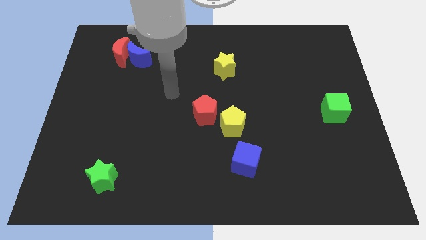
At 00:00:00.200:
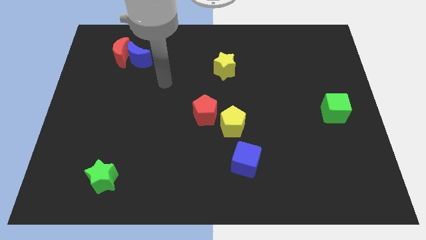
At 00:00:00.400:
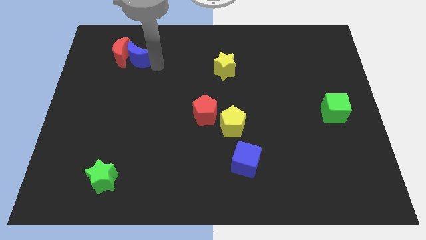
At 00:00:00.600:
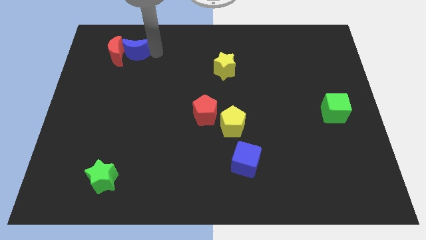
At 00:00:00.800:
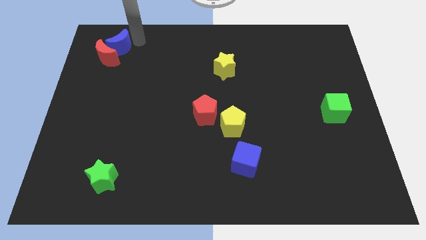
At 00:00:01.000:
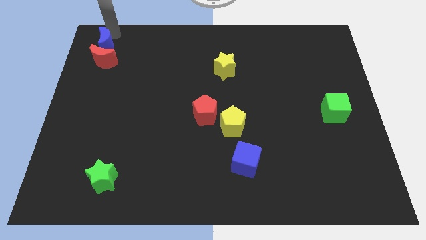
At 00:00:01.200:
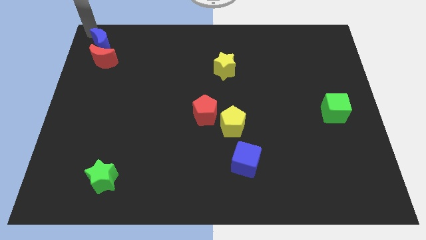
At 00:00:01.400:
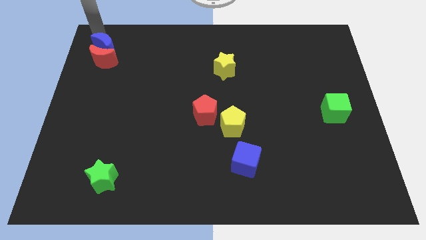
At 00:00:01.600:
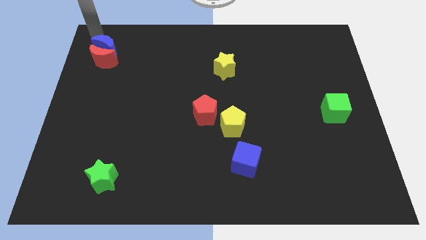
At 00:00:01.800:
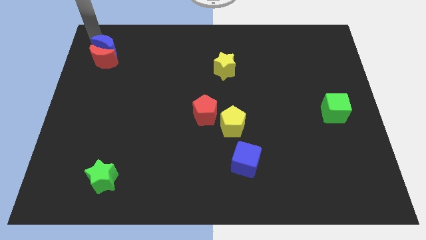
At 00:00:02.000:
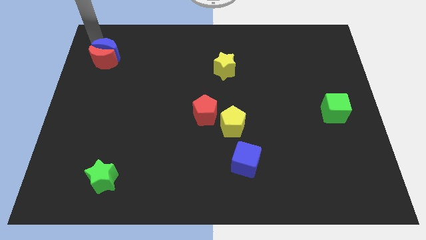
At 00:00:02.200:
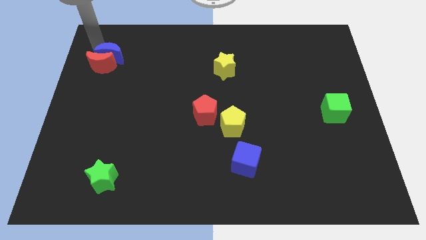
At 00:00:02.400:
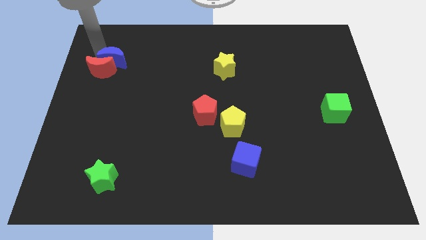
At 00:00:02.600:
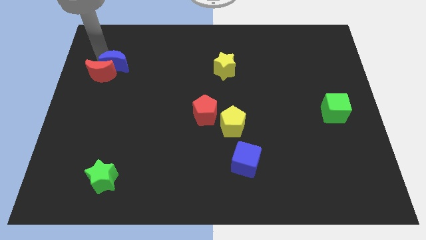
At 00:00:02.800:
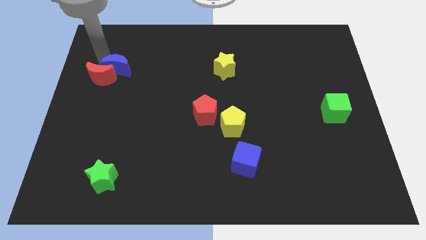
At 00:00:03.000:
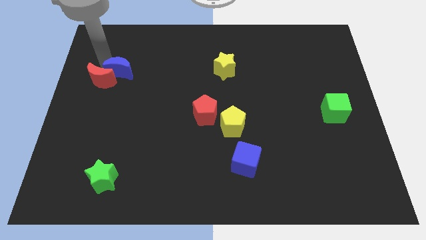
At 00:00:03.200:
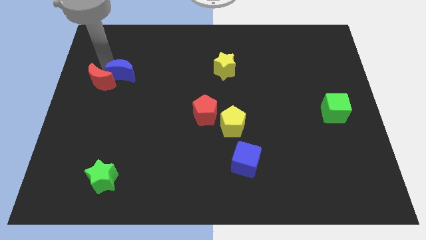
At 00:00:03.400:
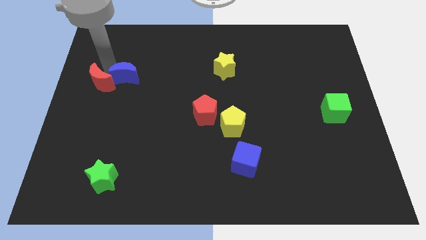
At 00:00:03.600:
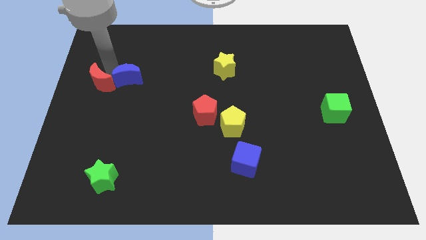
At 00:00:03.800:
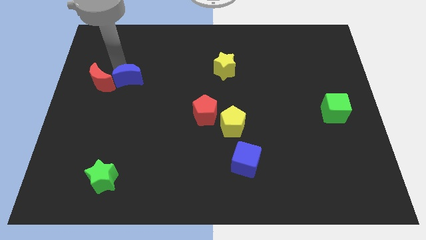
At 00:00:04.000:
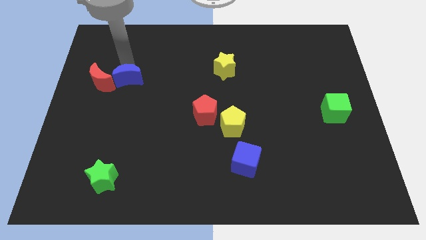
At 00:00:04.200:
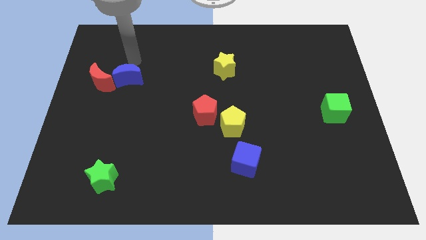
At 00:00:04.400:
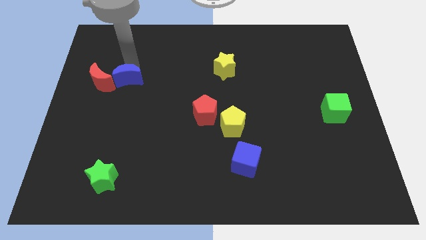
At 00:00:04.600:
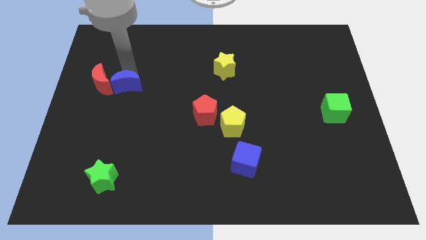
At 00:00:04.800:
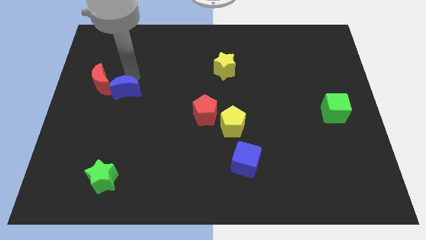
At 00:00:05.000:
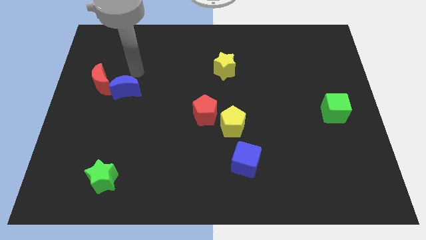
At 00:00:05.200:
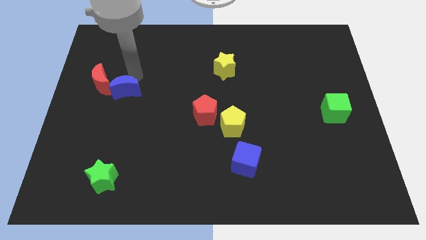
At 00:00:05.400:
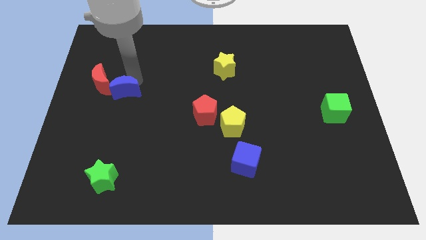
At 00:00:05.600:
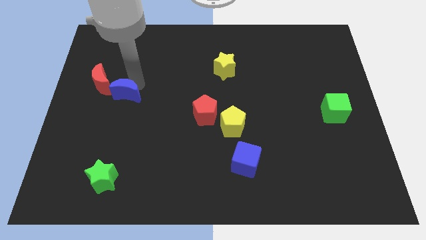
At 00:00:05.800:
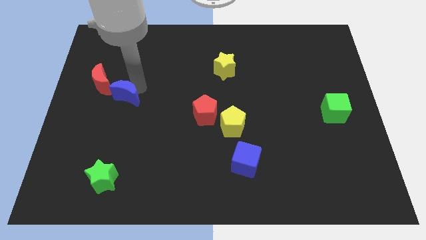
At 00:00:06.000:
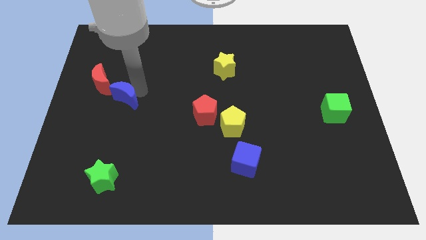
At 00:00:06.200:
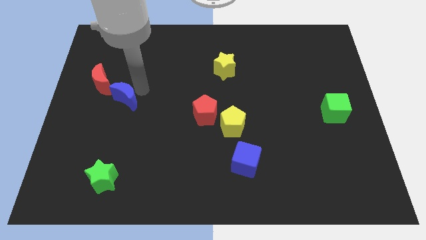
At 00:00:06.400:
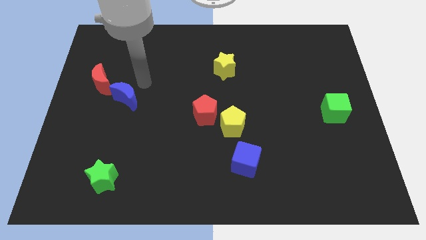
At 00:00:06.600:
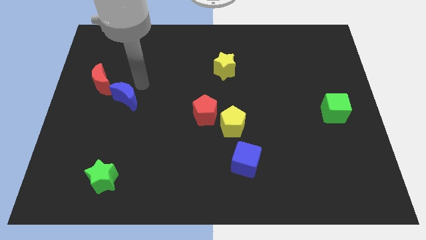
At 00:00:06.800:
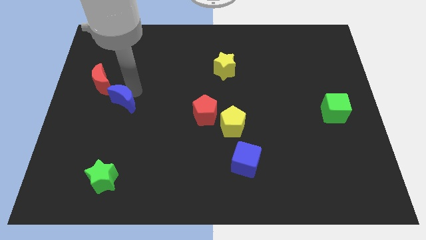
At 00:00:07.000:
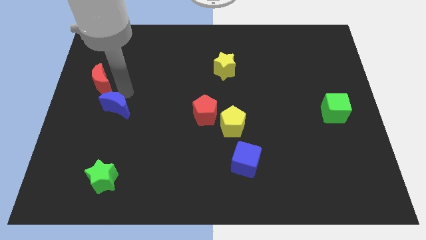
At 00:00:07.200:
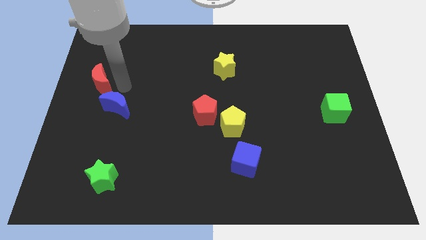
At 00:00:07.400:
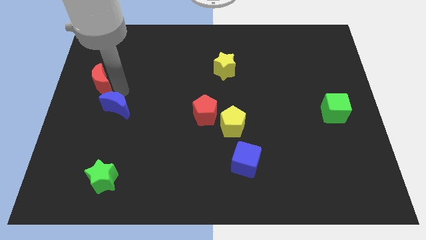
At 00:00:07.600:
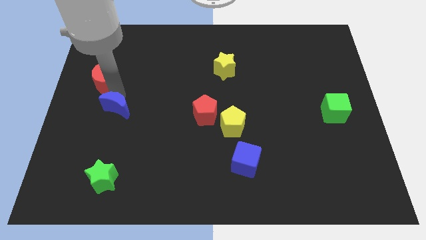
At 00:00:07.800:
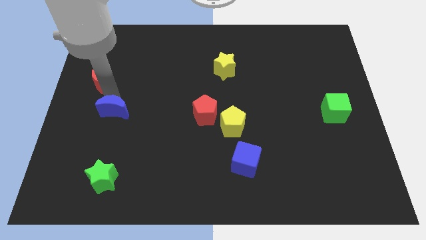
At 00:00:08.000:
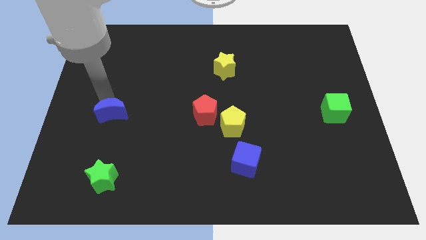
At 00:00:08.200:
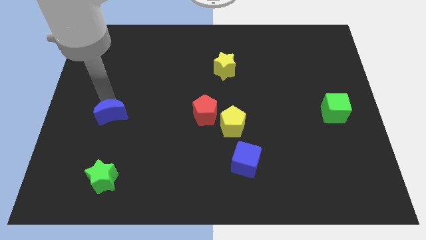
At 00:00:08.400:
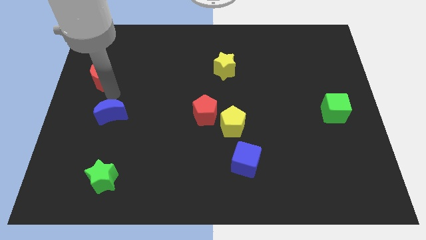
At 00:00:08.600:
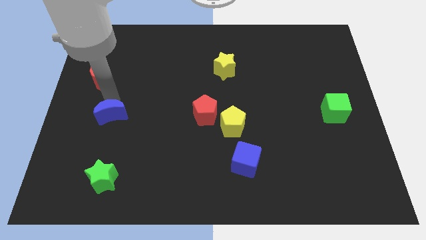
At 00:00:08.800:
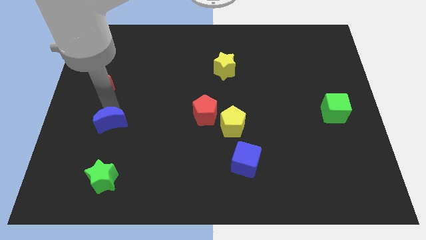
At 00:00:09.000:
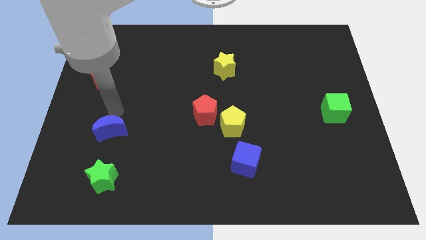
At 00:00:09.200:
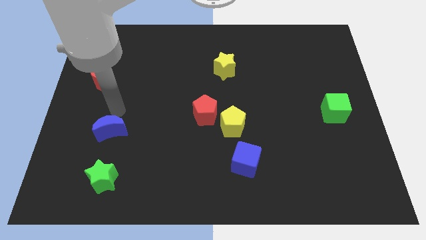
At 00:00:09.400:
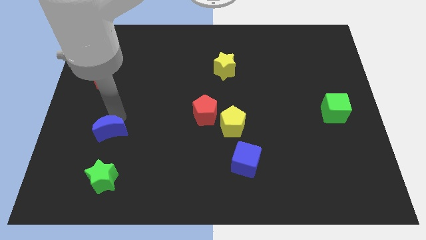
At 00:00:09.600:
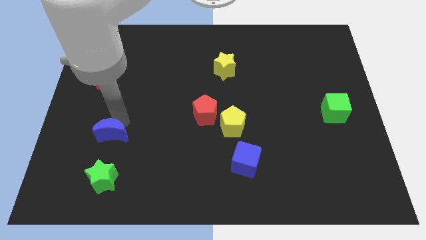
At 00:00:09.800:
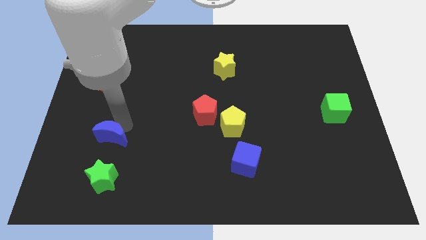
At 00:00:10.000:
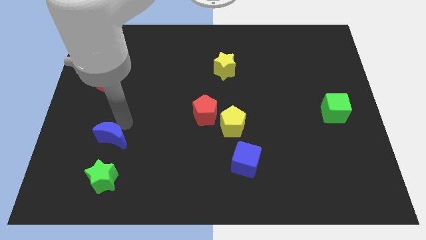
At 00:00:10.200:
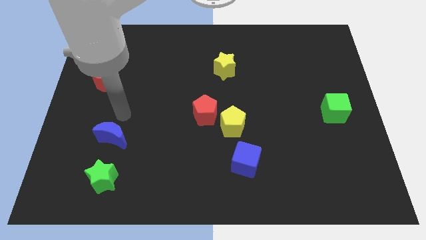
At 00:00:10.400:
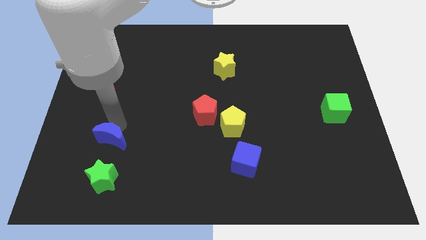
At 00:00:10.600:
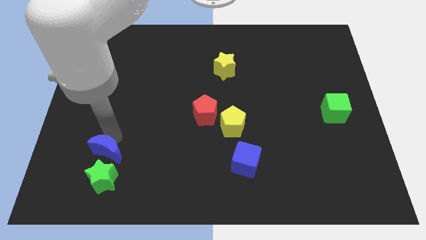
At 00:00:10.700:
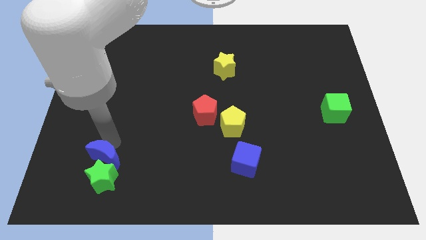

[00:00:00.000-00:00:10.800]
put the blue moon to the green star

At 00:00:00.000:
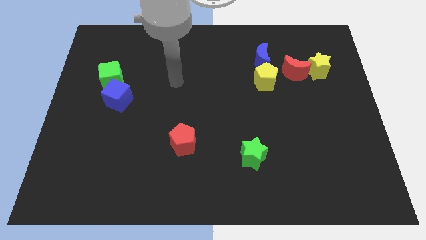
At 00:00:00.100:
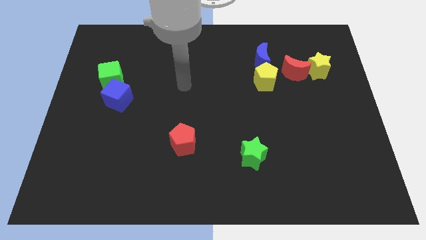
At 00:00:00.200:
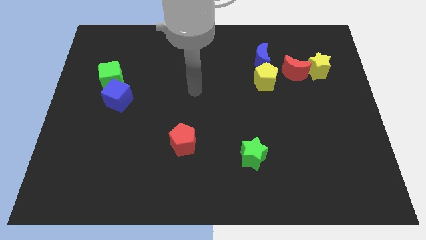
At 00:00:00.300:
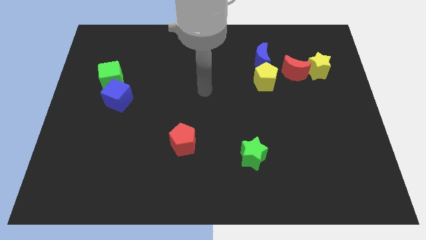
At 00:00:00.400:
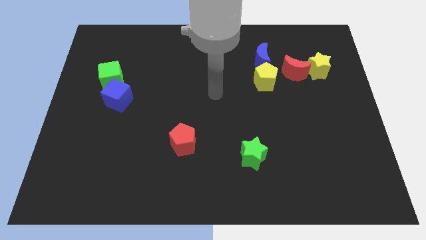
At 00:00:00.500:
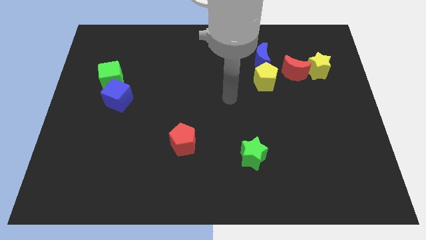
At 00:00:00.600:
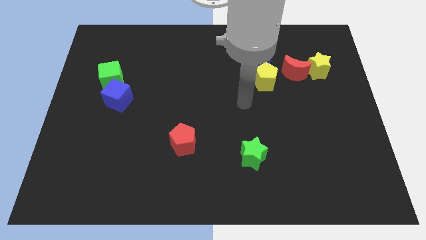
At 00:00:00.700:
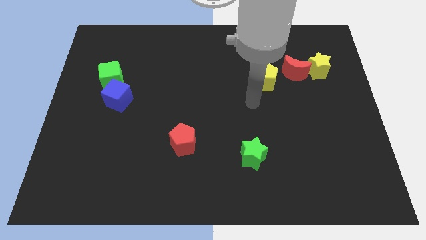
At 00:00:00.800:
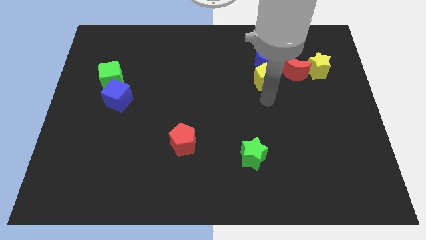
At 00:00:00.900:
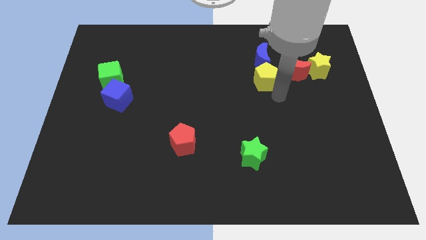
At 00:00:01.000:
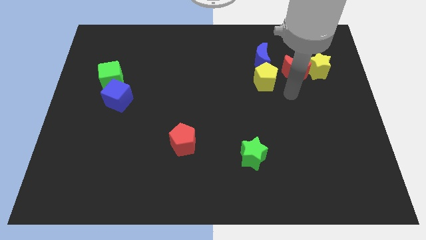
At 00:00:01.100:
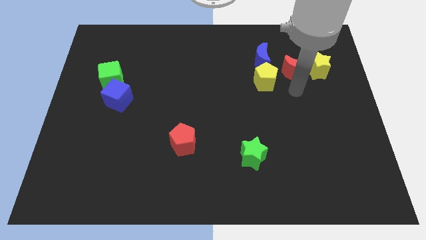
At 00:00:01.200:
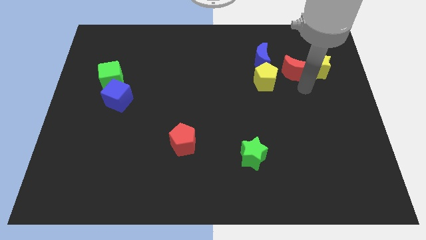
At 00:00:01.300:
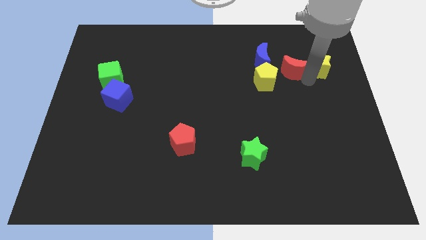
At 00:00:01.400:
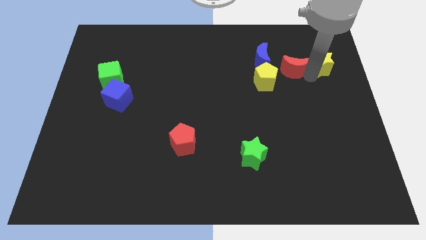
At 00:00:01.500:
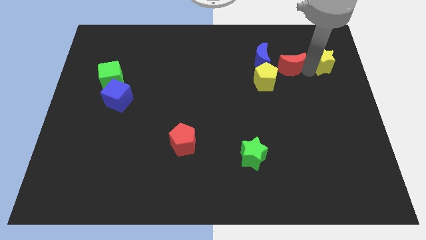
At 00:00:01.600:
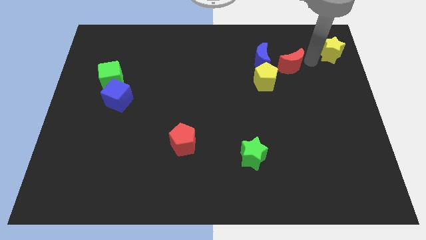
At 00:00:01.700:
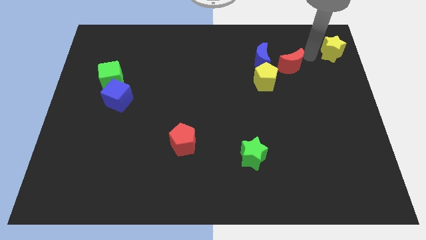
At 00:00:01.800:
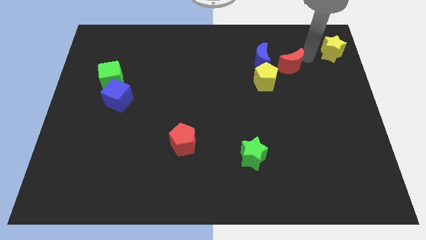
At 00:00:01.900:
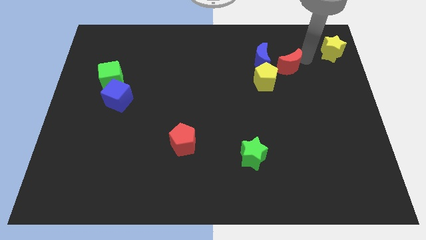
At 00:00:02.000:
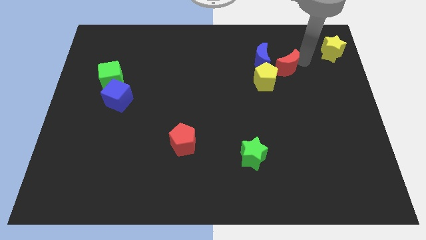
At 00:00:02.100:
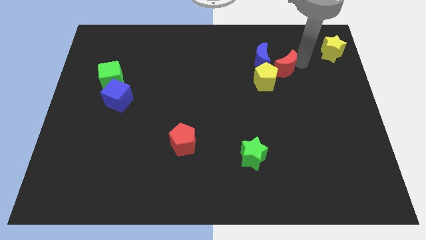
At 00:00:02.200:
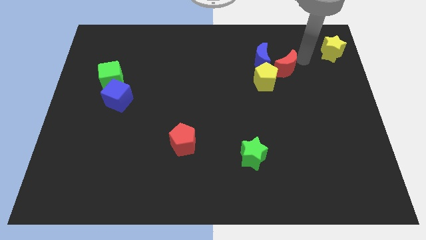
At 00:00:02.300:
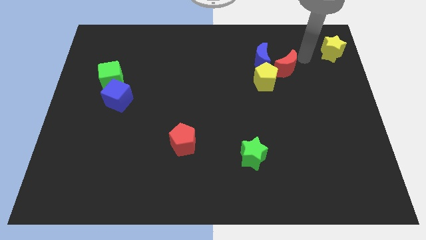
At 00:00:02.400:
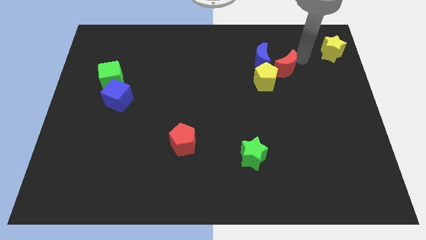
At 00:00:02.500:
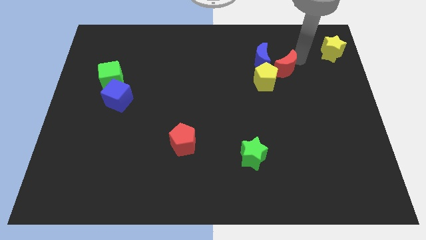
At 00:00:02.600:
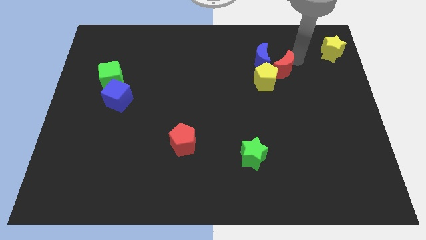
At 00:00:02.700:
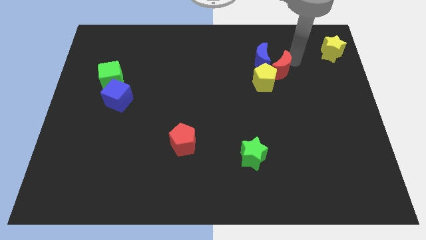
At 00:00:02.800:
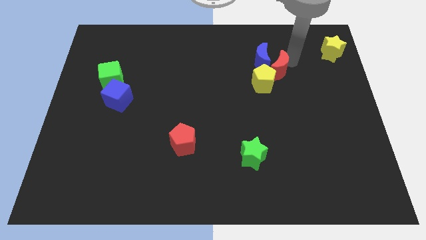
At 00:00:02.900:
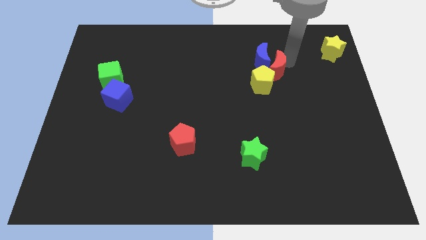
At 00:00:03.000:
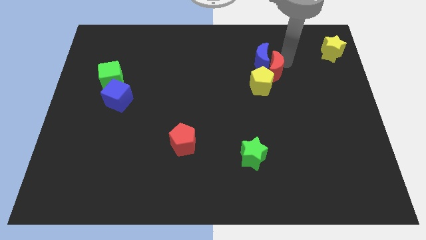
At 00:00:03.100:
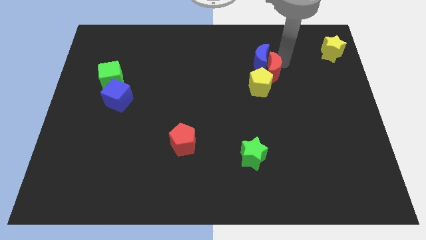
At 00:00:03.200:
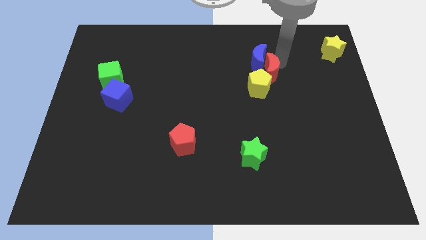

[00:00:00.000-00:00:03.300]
slide the red moon to the yellow pentagon
